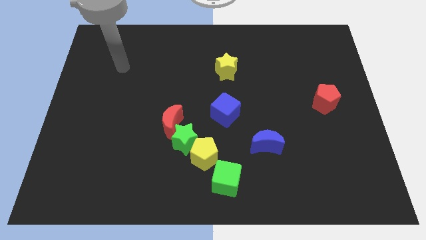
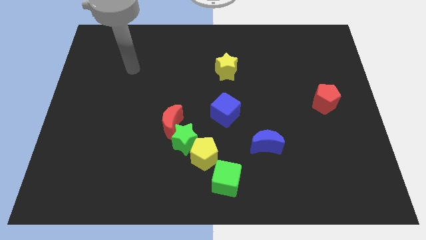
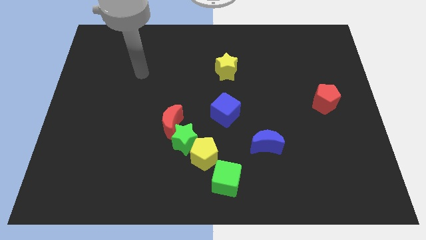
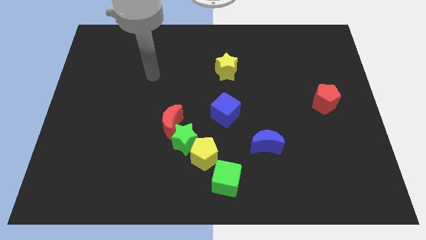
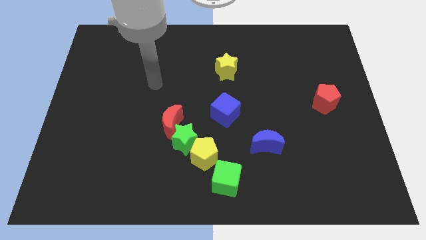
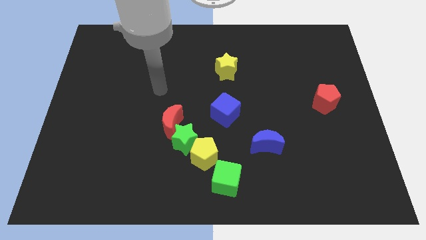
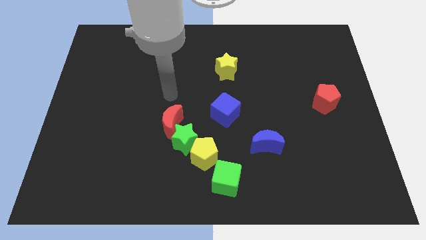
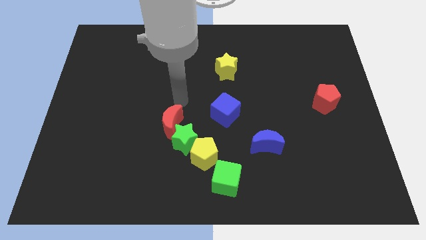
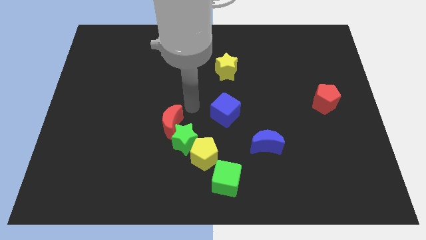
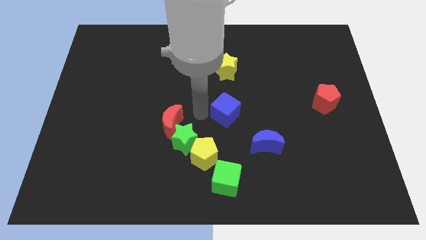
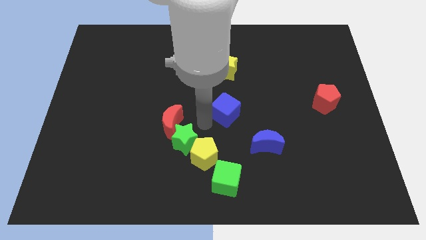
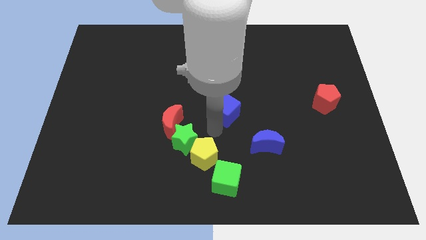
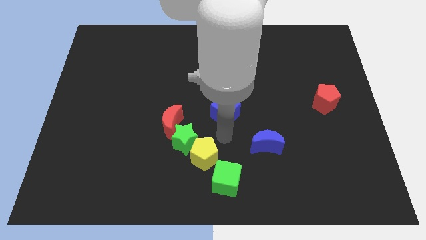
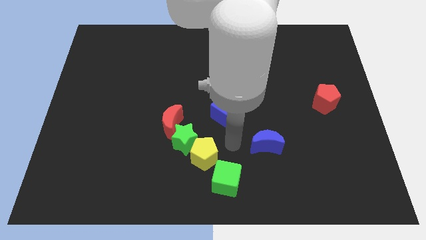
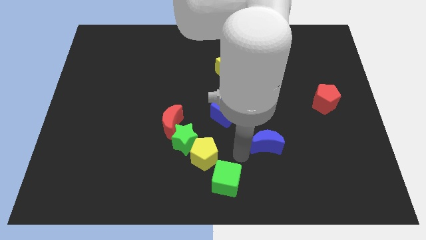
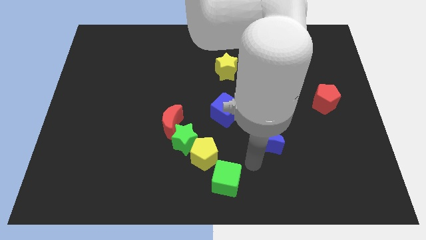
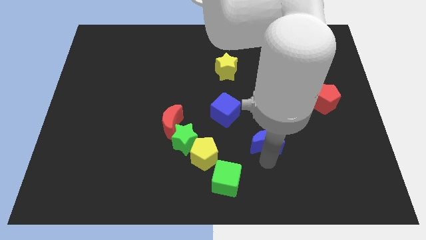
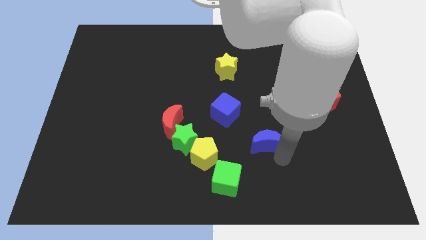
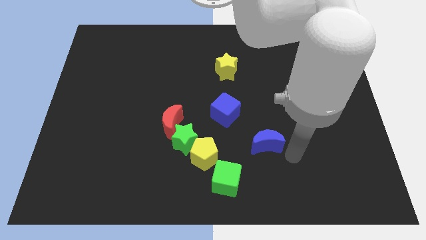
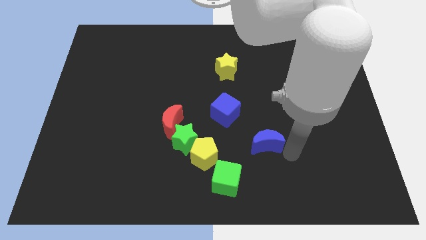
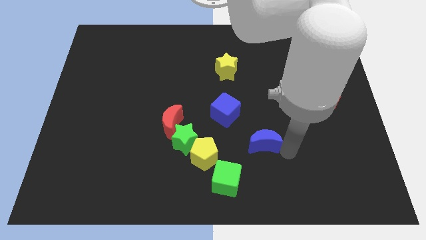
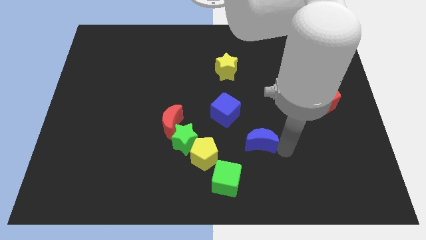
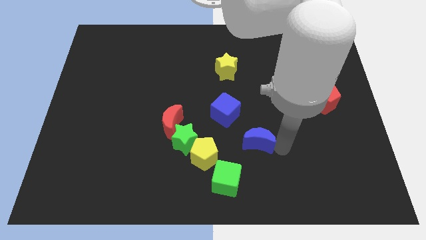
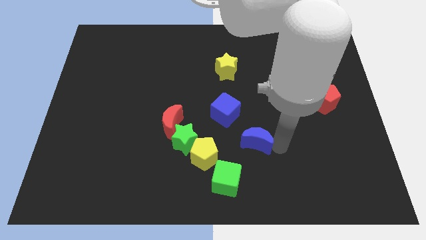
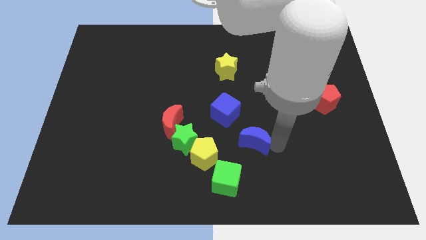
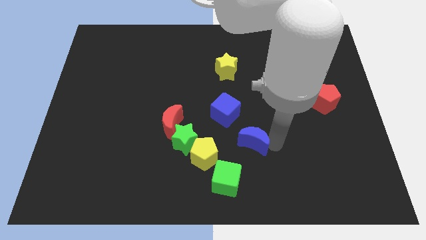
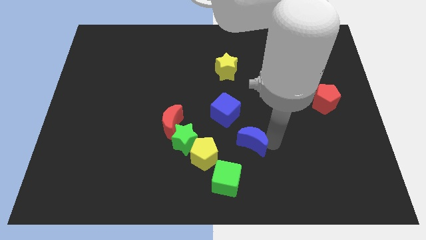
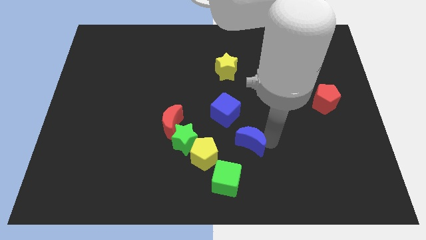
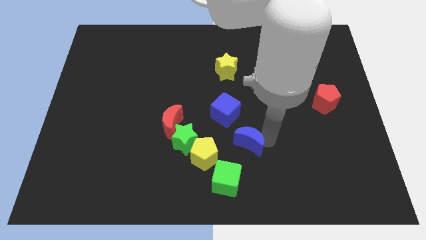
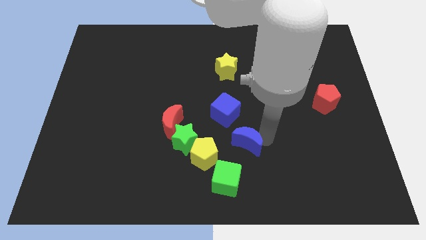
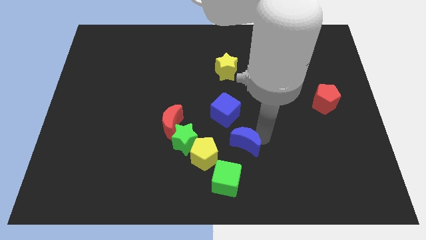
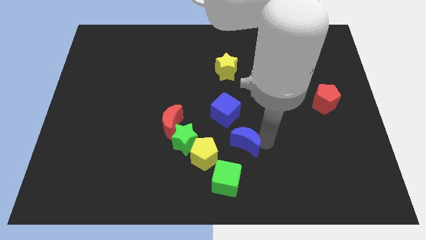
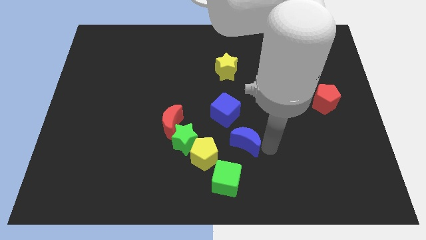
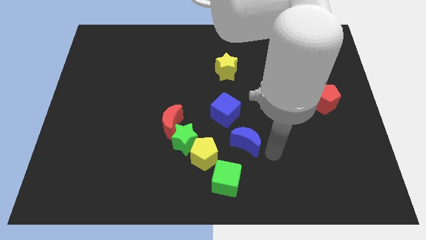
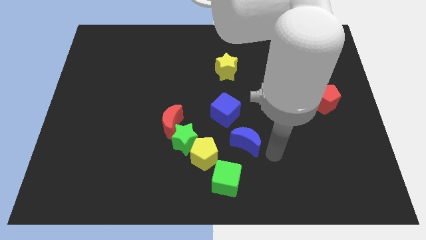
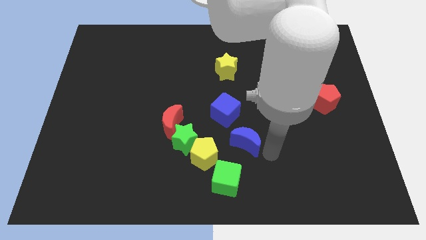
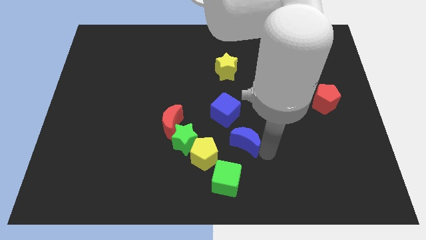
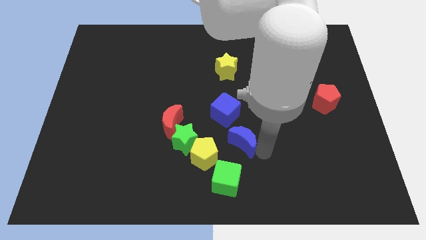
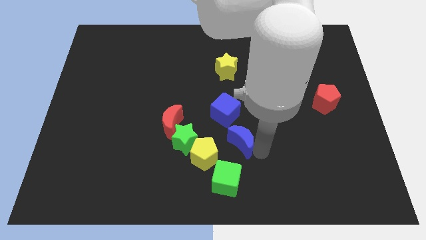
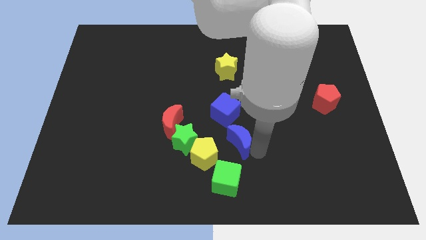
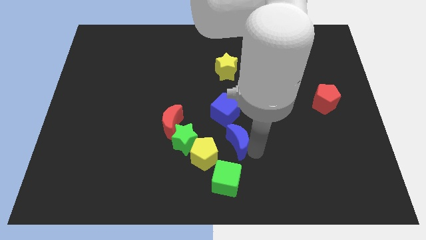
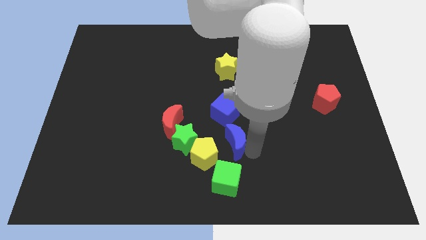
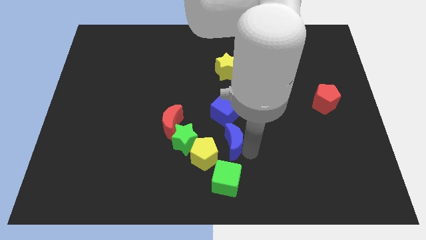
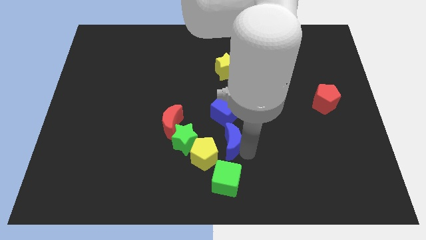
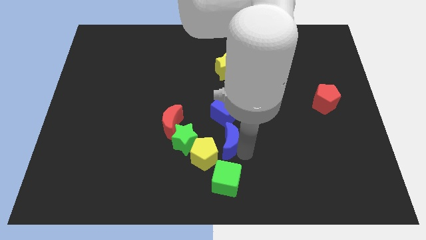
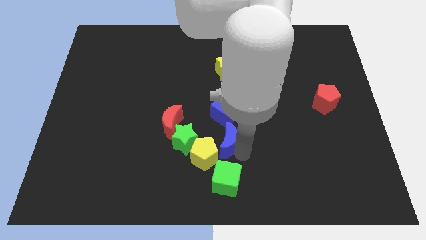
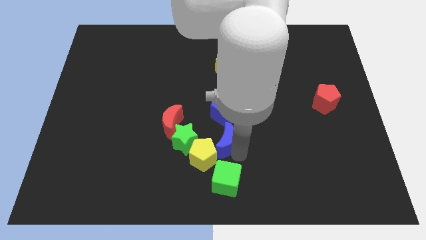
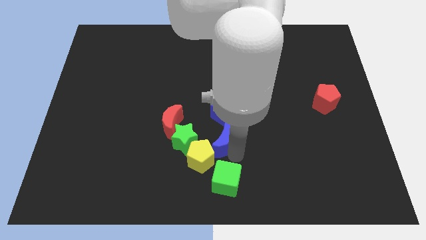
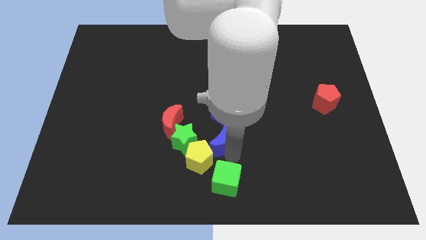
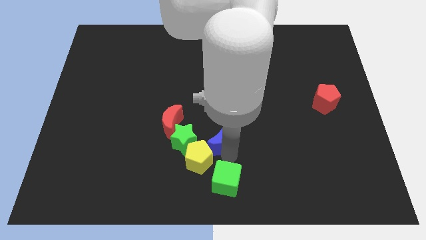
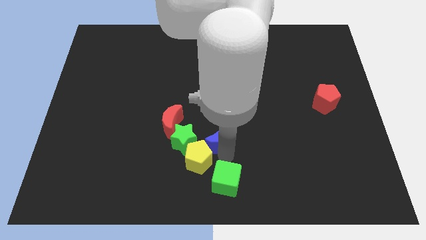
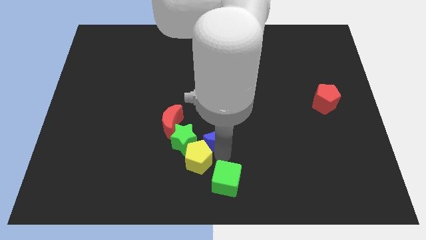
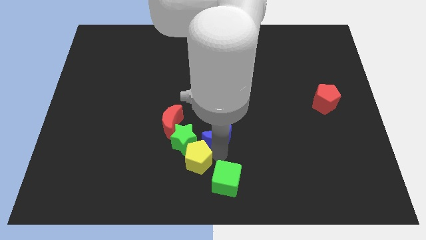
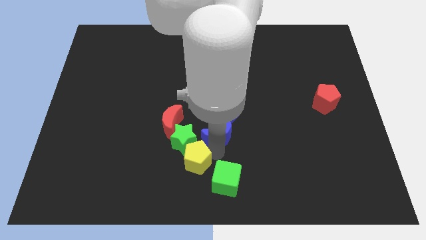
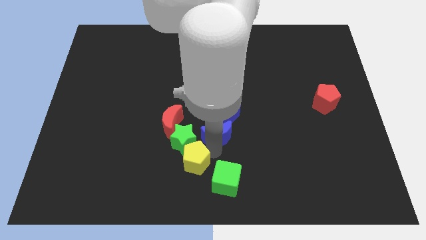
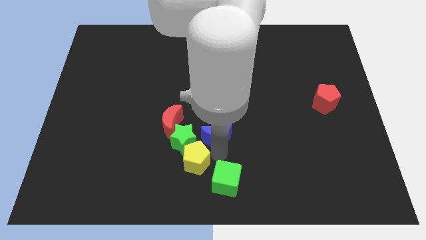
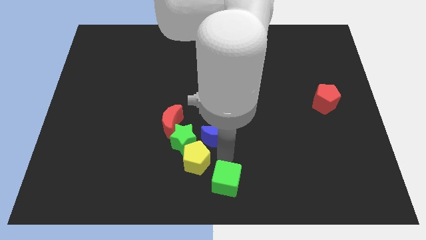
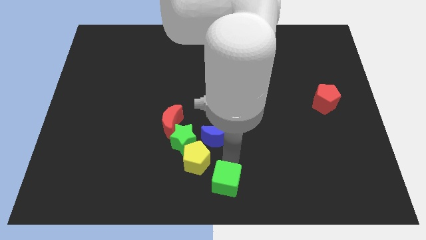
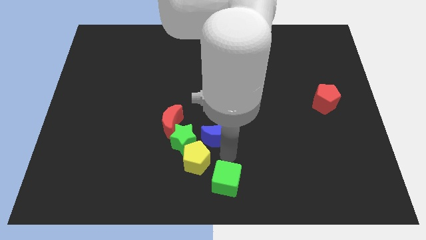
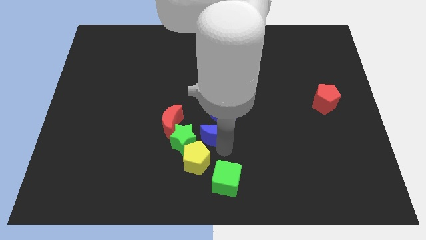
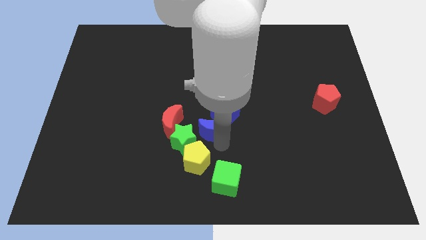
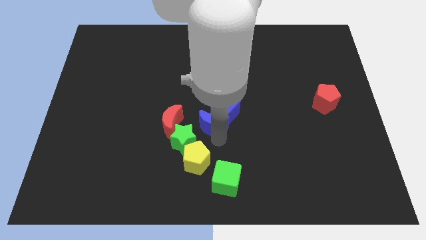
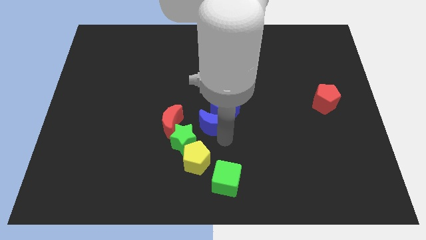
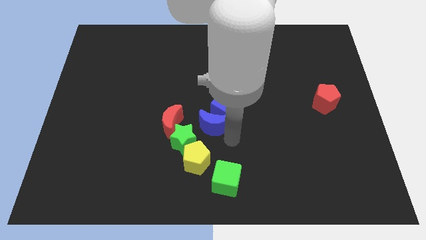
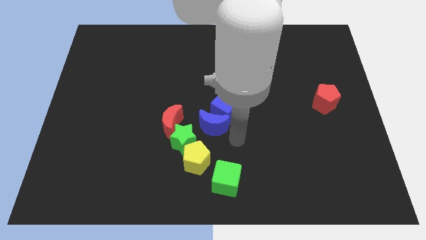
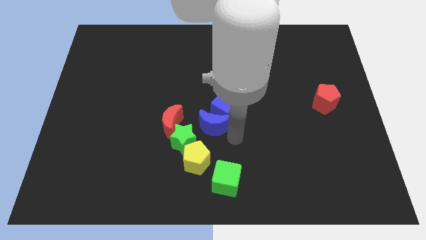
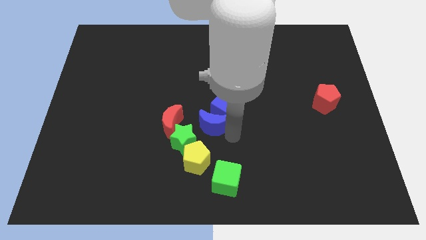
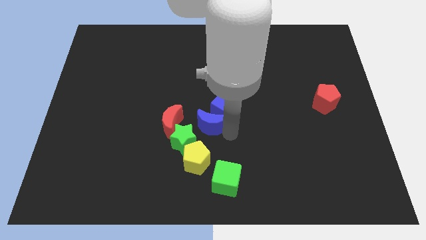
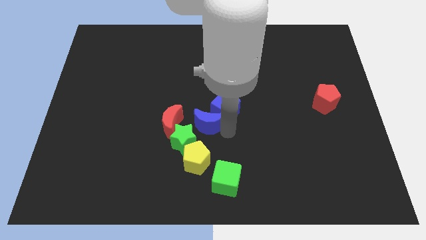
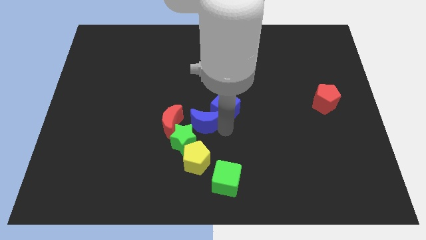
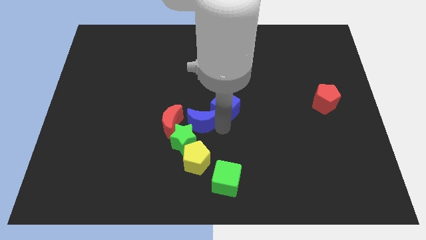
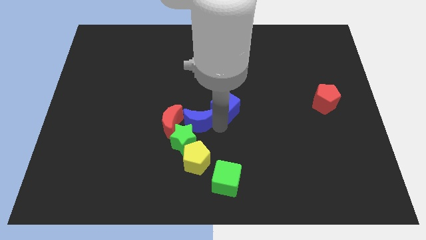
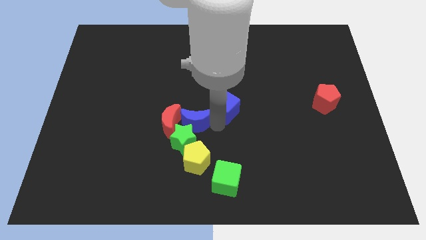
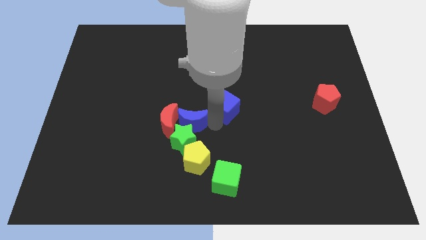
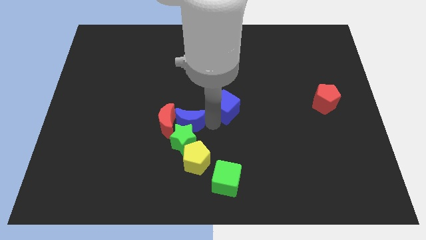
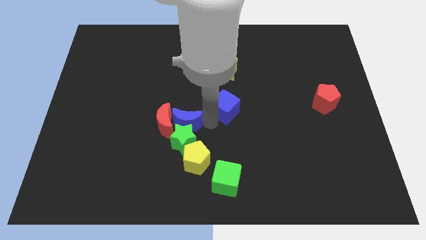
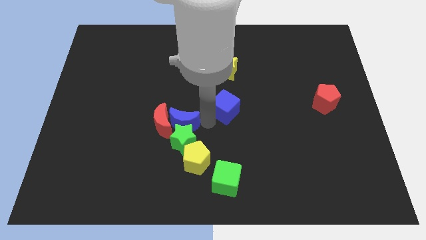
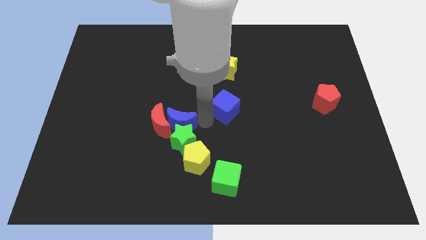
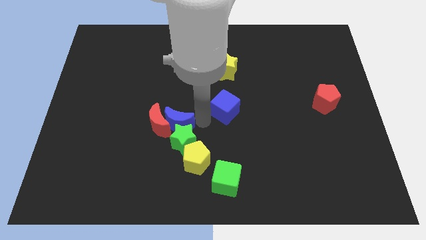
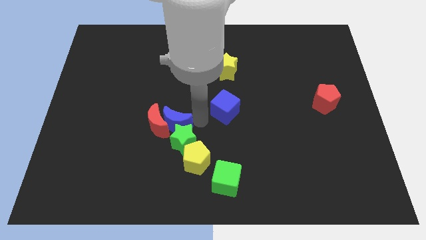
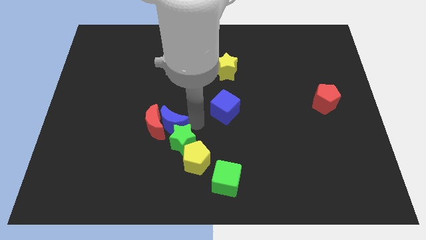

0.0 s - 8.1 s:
slide the blue moon to the left

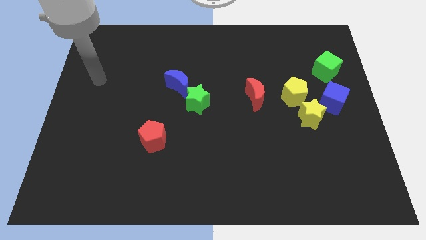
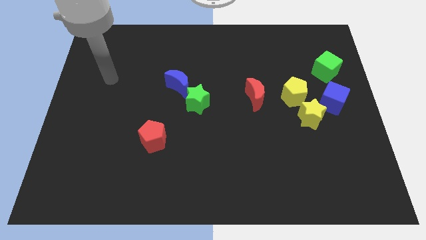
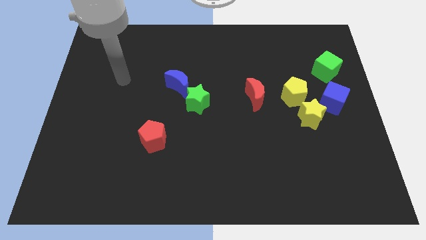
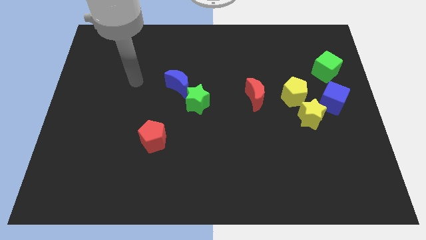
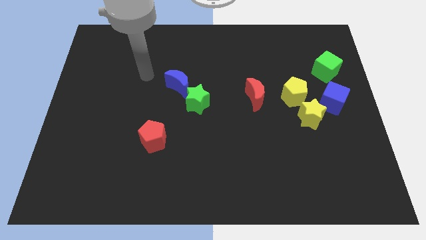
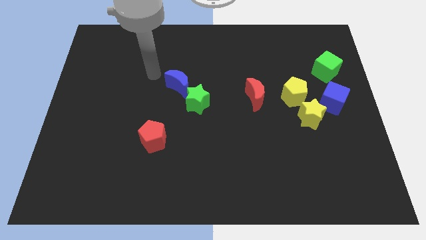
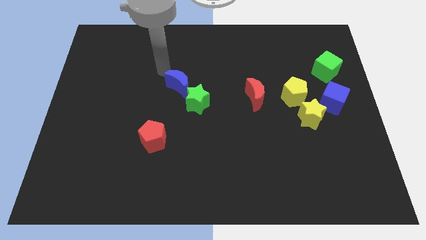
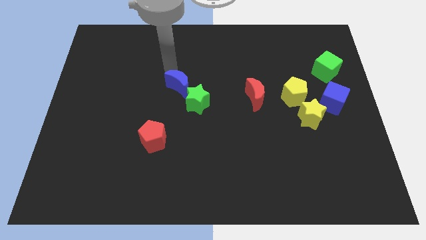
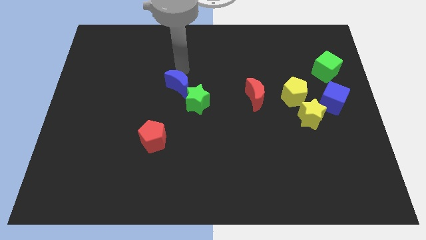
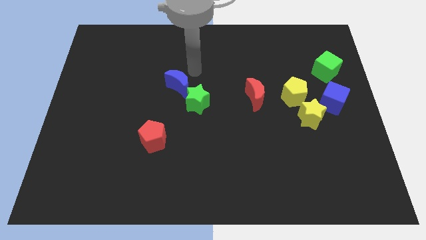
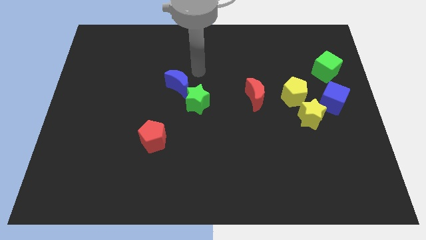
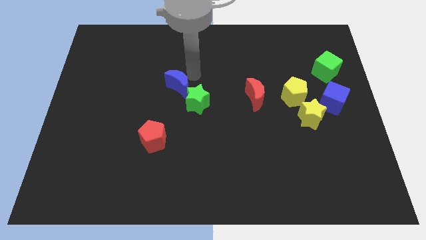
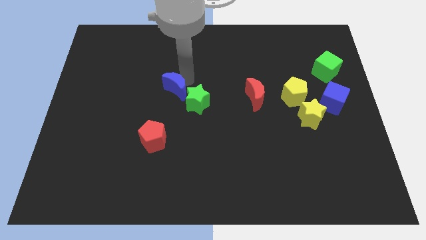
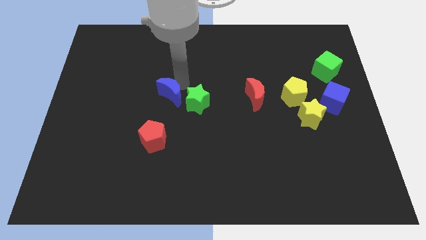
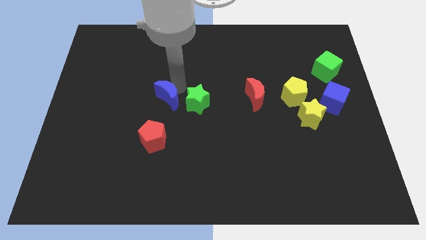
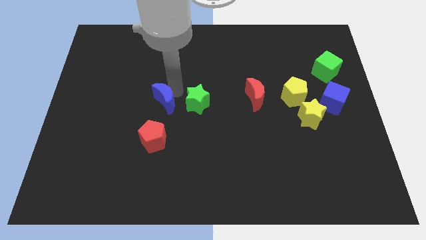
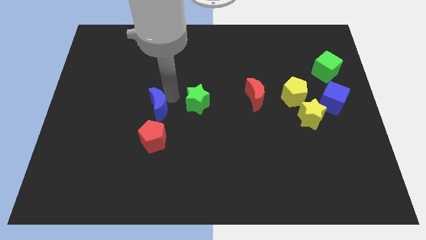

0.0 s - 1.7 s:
slightly move the blue moon downwards and then to the left
